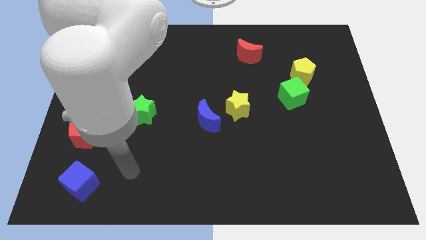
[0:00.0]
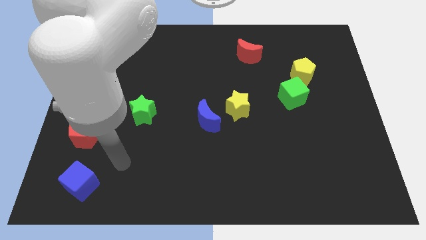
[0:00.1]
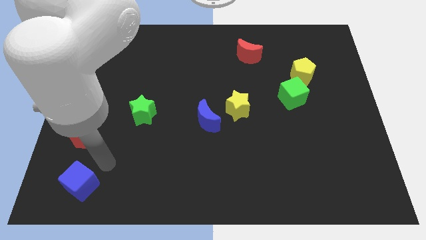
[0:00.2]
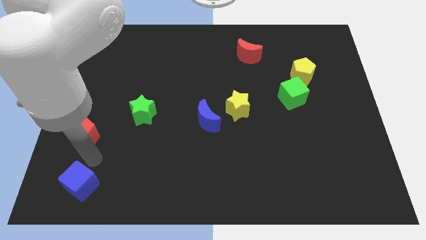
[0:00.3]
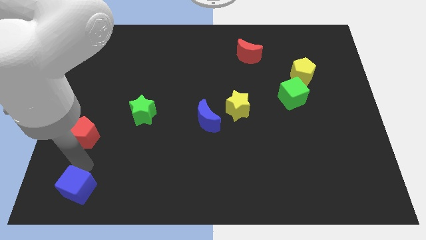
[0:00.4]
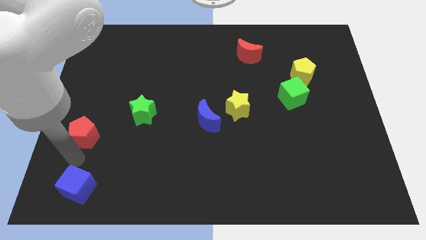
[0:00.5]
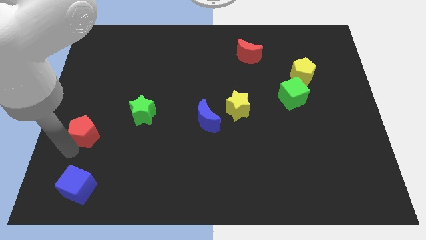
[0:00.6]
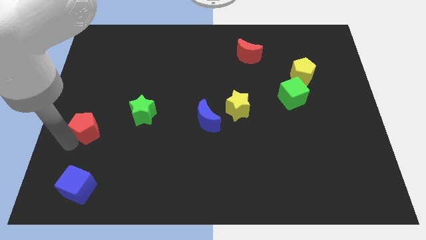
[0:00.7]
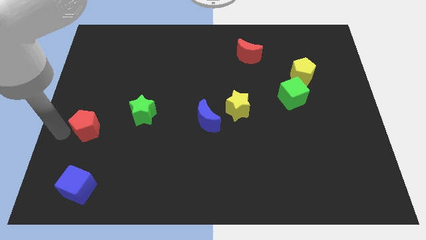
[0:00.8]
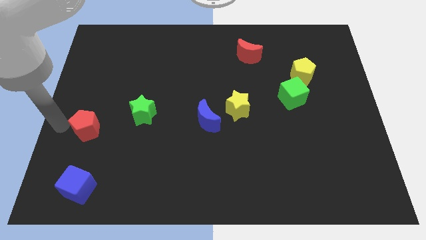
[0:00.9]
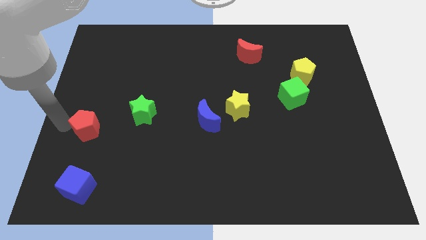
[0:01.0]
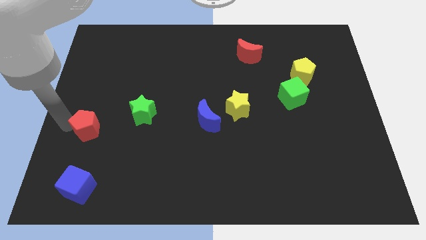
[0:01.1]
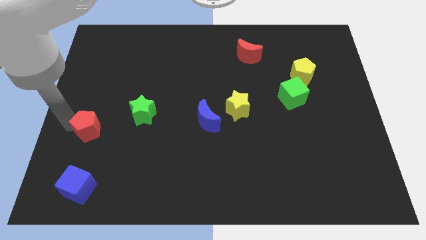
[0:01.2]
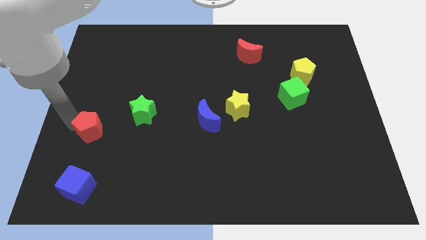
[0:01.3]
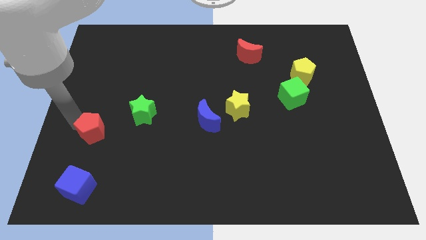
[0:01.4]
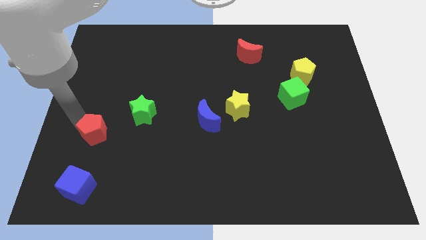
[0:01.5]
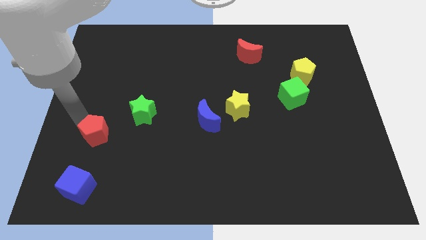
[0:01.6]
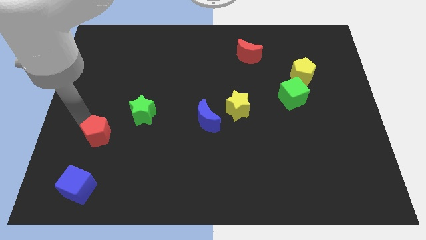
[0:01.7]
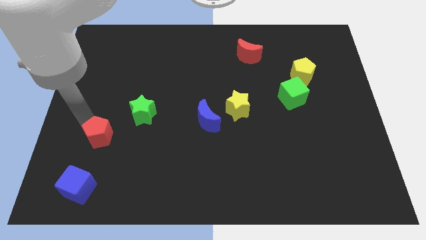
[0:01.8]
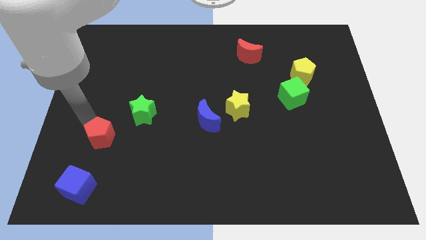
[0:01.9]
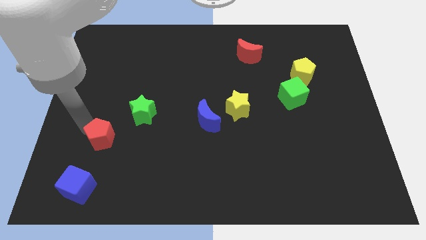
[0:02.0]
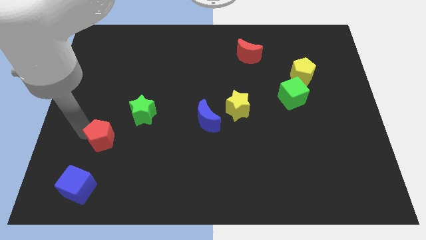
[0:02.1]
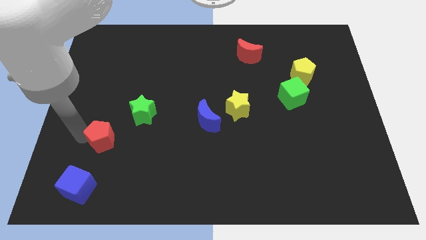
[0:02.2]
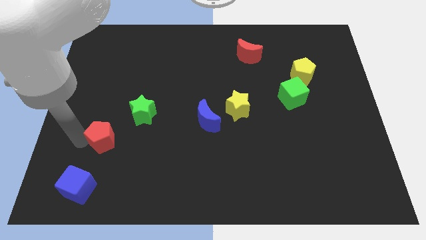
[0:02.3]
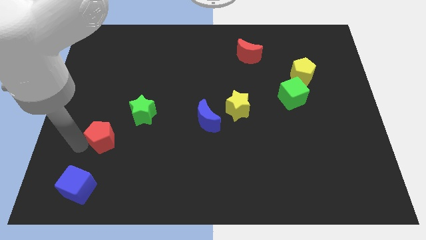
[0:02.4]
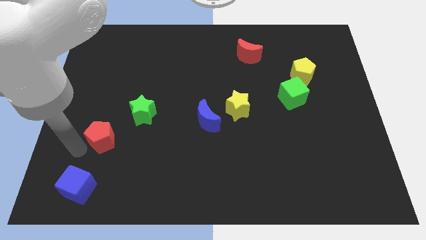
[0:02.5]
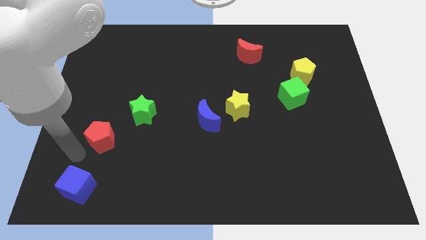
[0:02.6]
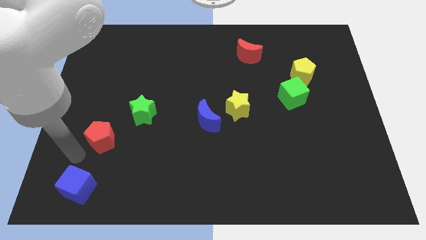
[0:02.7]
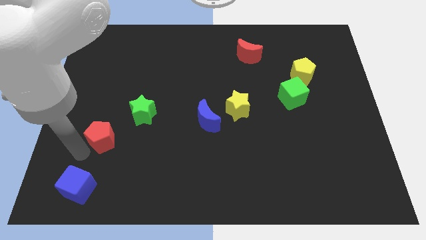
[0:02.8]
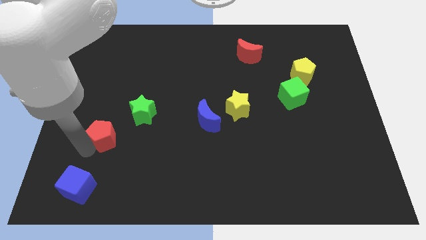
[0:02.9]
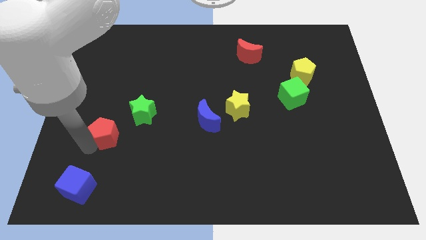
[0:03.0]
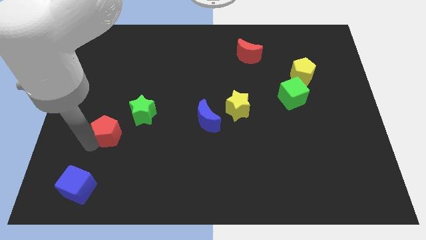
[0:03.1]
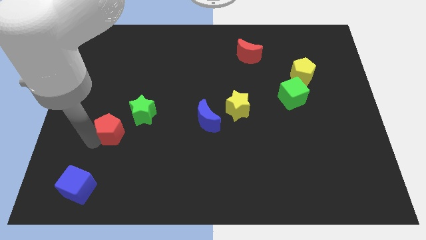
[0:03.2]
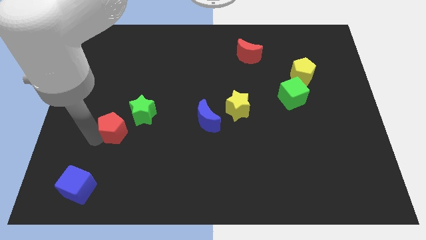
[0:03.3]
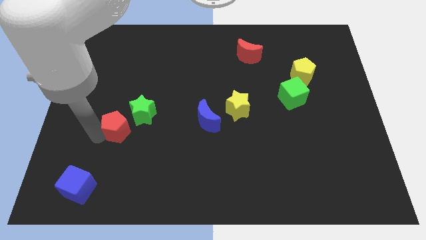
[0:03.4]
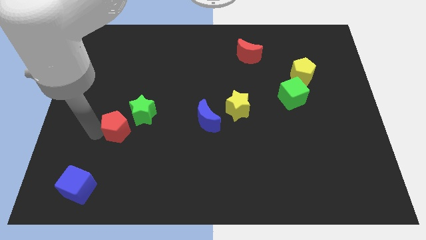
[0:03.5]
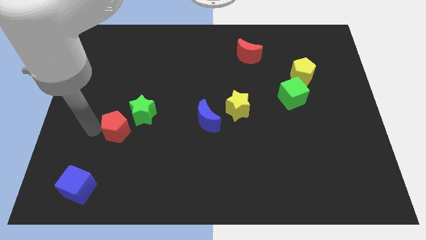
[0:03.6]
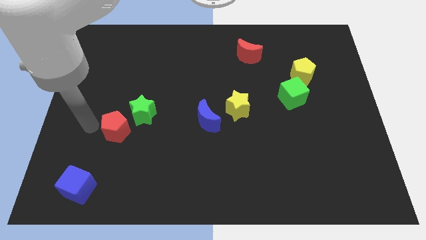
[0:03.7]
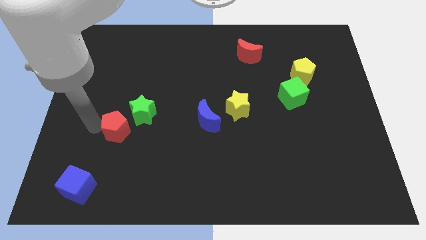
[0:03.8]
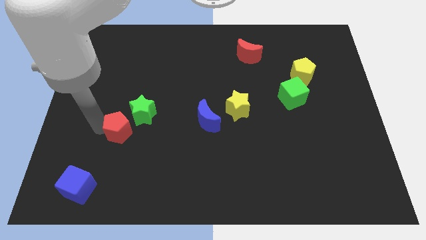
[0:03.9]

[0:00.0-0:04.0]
slide the red pentagon to the right somewhat

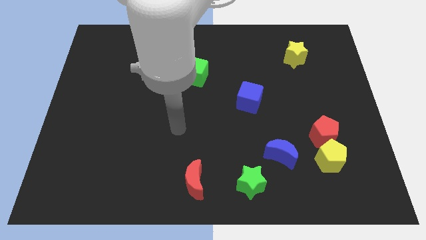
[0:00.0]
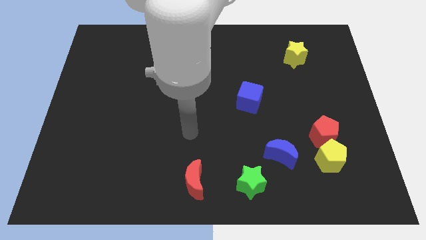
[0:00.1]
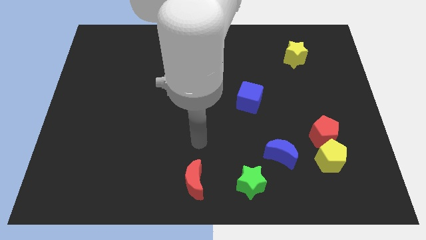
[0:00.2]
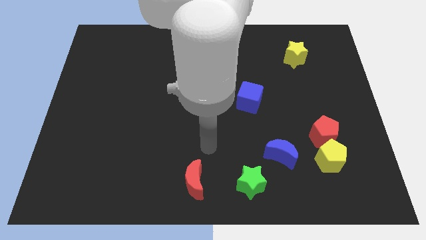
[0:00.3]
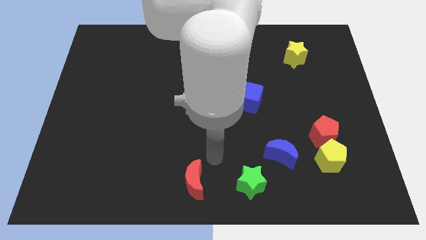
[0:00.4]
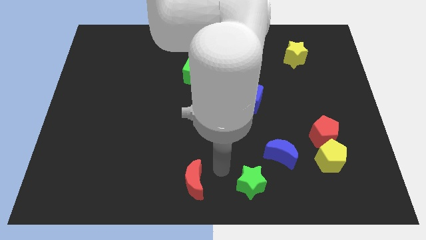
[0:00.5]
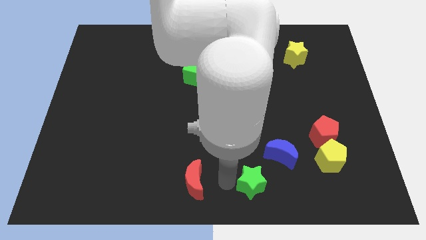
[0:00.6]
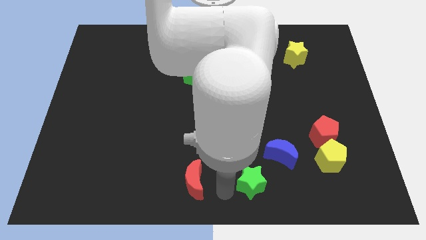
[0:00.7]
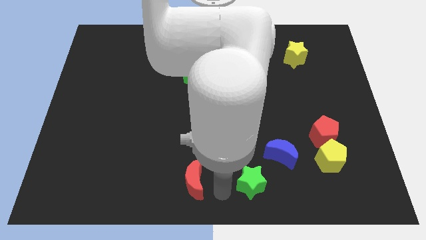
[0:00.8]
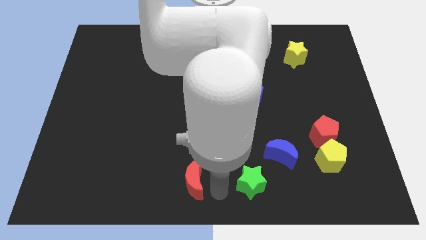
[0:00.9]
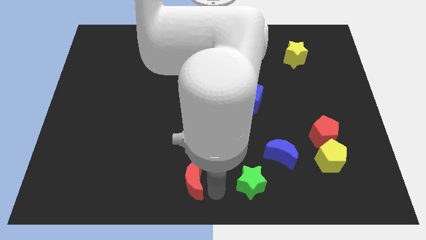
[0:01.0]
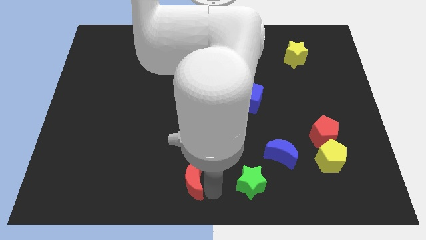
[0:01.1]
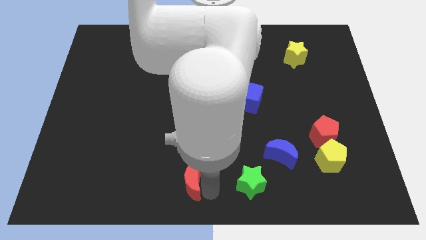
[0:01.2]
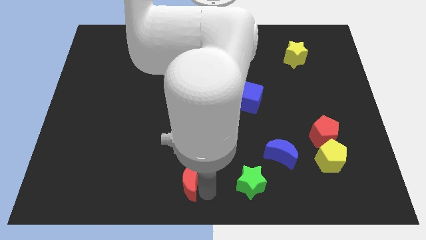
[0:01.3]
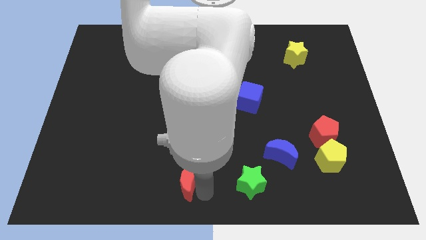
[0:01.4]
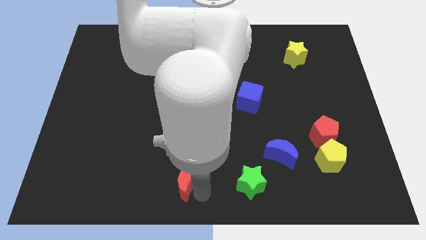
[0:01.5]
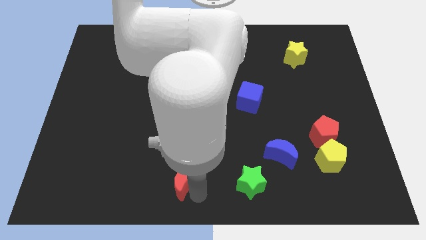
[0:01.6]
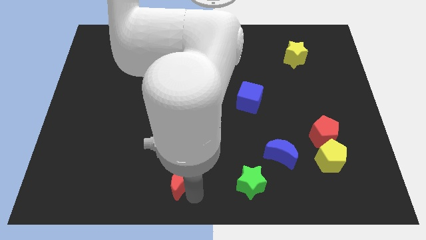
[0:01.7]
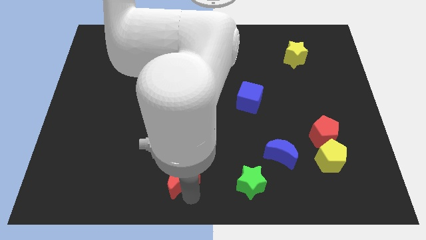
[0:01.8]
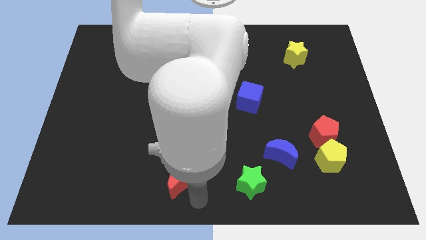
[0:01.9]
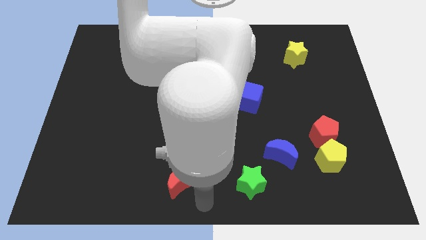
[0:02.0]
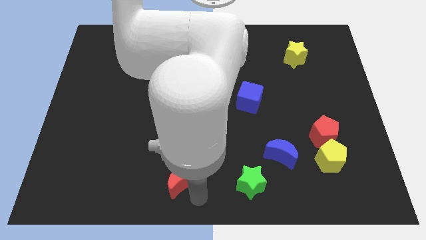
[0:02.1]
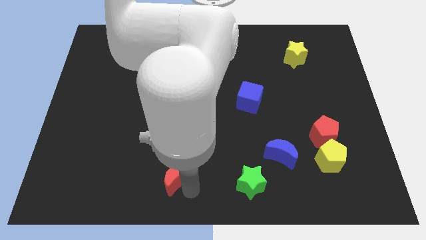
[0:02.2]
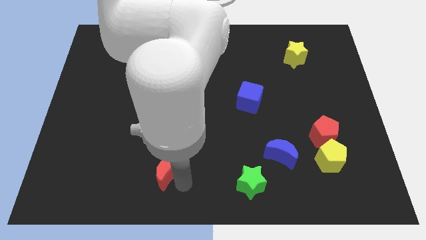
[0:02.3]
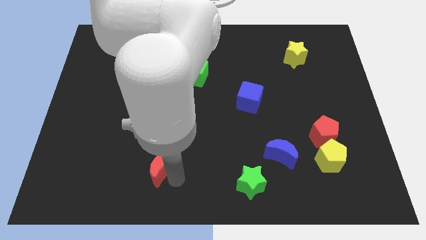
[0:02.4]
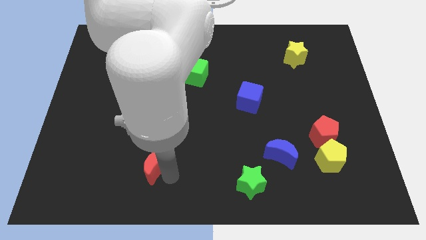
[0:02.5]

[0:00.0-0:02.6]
move the red moon diagonally up and left a bit

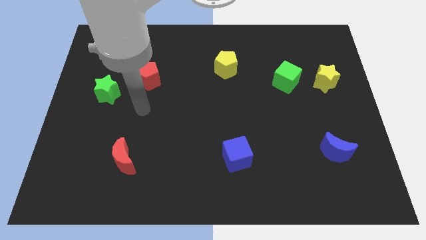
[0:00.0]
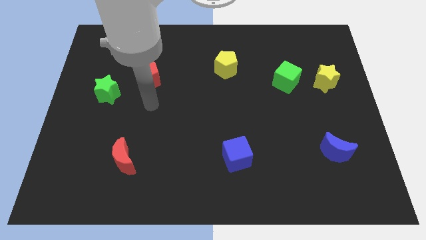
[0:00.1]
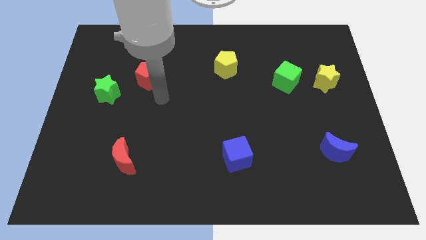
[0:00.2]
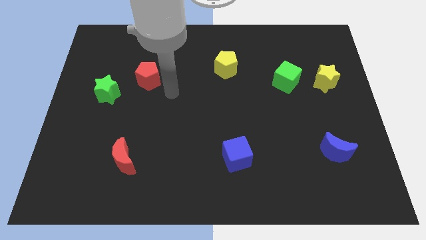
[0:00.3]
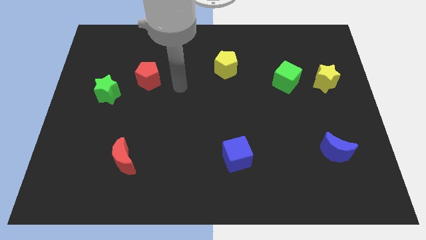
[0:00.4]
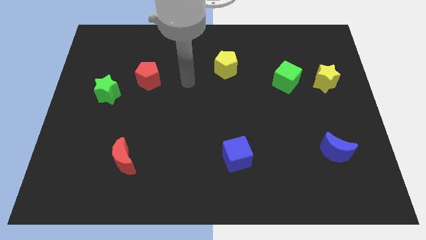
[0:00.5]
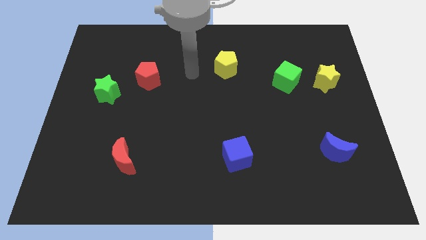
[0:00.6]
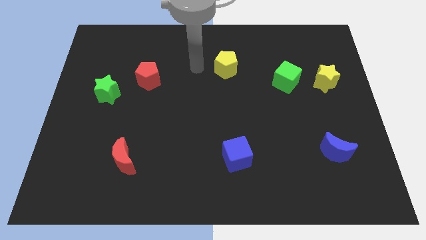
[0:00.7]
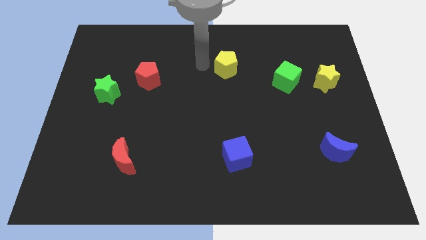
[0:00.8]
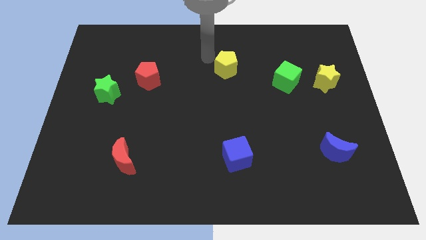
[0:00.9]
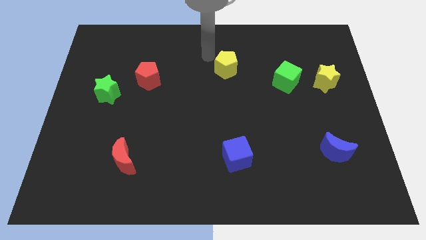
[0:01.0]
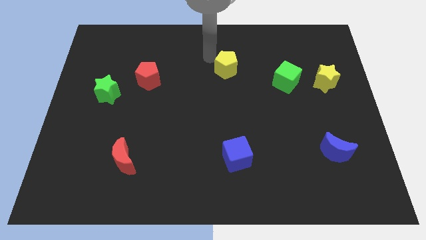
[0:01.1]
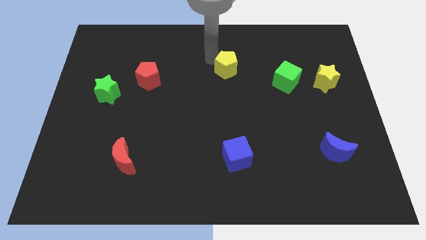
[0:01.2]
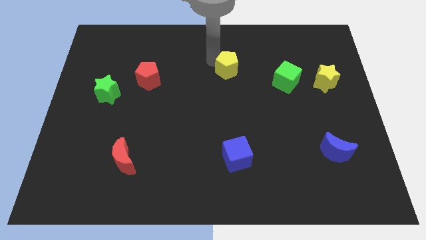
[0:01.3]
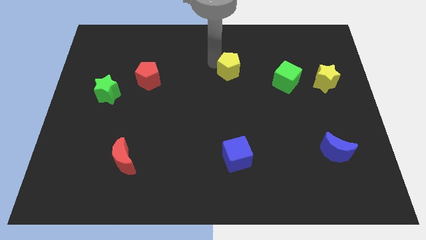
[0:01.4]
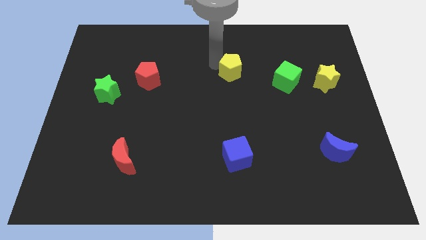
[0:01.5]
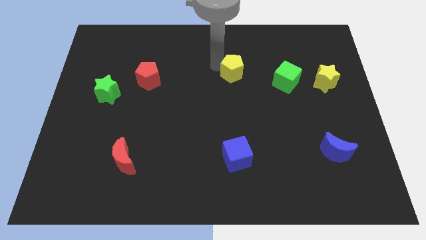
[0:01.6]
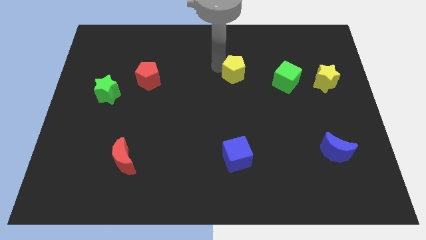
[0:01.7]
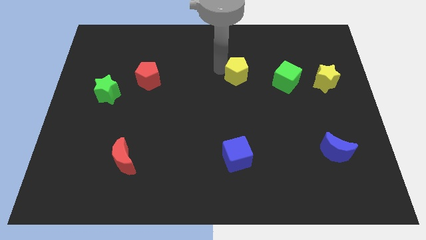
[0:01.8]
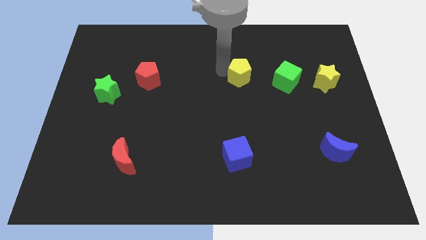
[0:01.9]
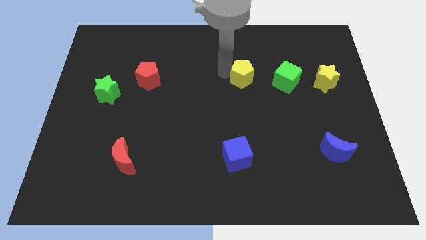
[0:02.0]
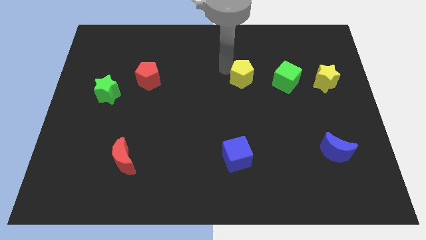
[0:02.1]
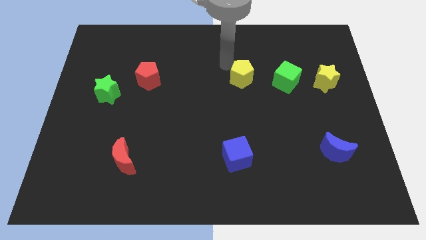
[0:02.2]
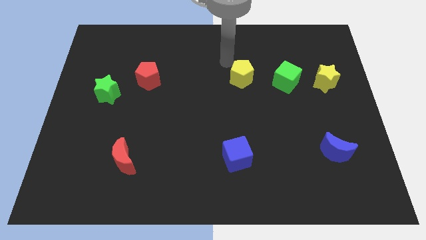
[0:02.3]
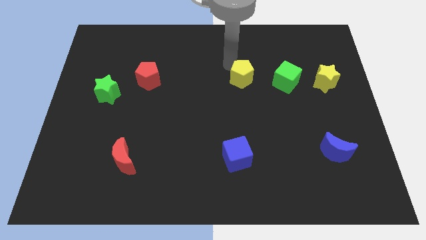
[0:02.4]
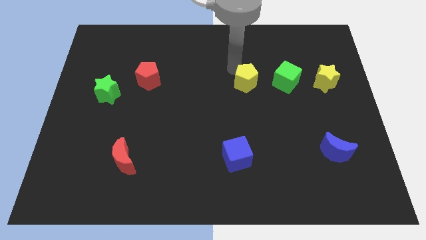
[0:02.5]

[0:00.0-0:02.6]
move the yellow pentagon a little downwards and right
